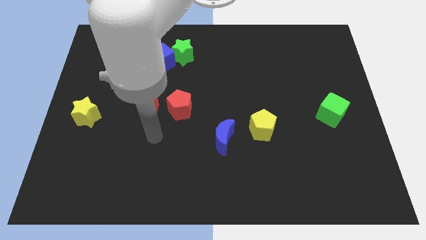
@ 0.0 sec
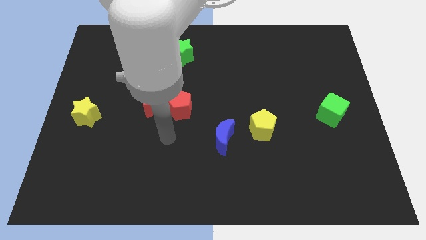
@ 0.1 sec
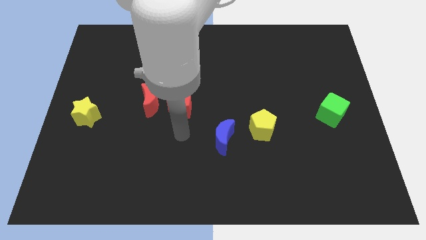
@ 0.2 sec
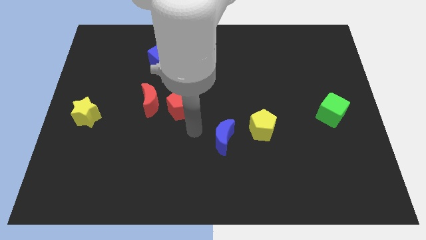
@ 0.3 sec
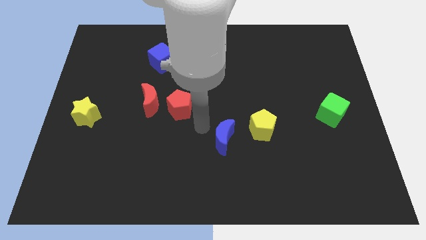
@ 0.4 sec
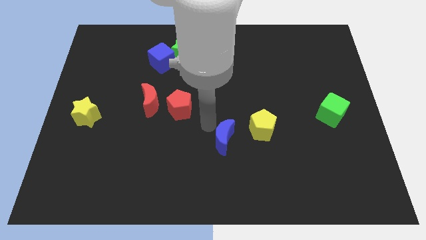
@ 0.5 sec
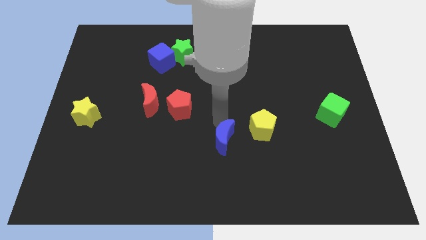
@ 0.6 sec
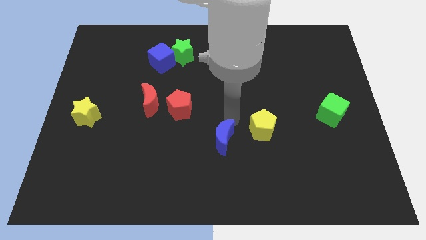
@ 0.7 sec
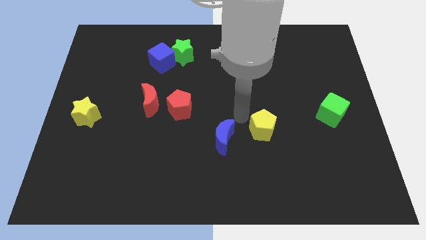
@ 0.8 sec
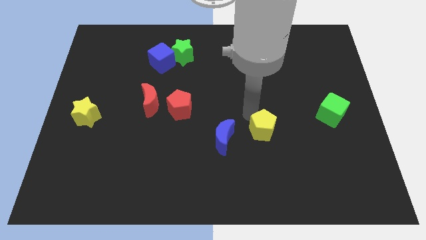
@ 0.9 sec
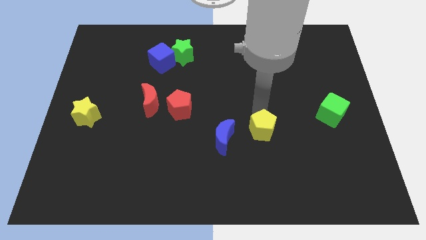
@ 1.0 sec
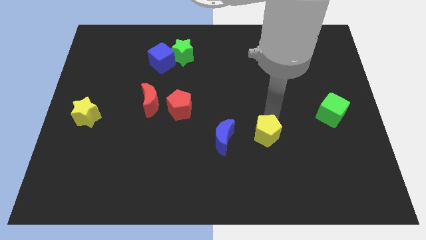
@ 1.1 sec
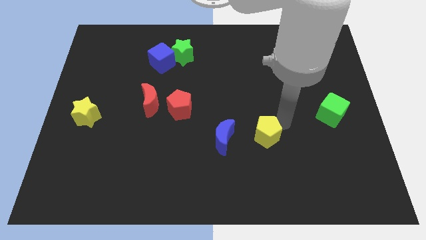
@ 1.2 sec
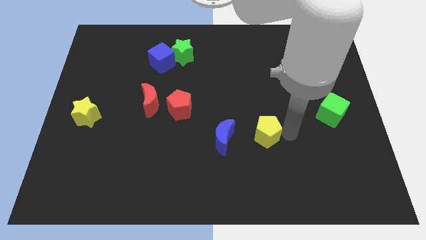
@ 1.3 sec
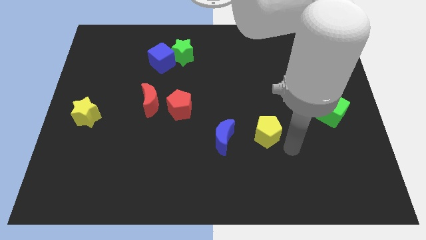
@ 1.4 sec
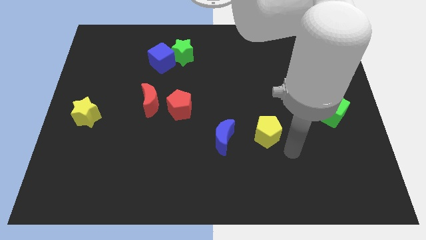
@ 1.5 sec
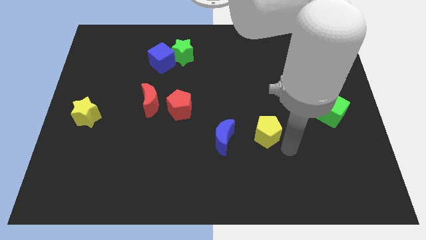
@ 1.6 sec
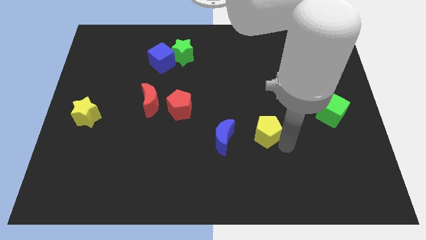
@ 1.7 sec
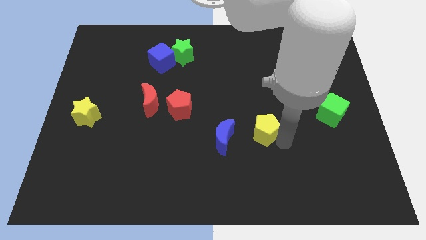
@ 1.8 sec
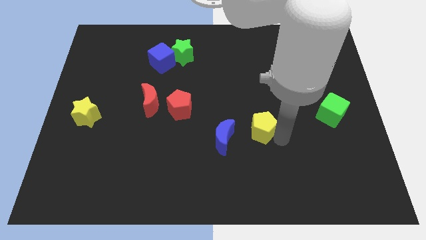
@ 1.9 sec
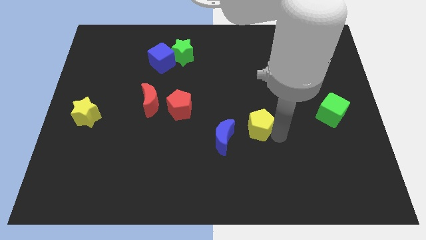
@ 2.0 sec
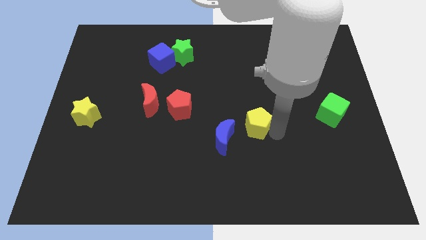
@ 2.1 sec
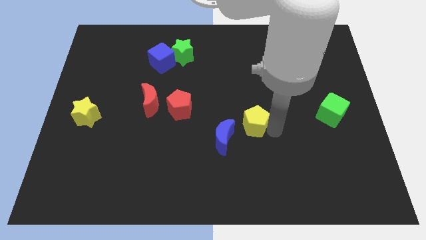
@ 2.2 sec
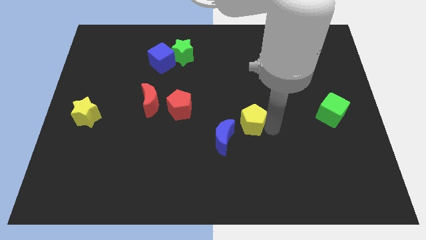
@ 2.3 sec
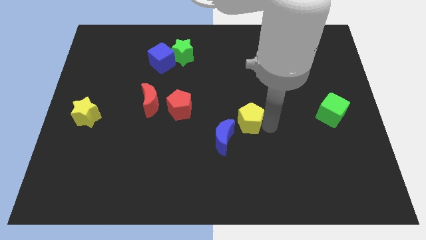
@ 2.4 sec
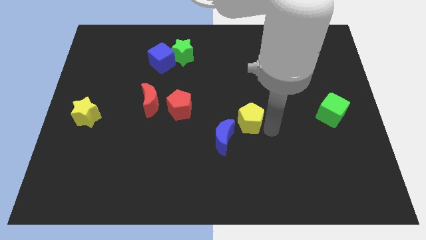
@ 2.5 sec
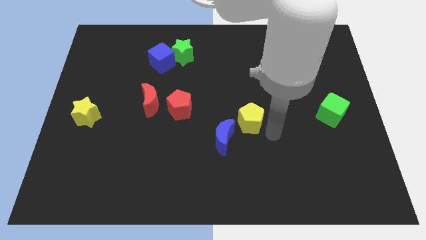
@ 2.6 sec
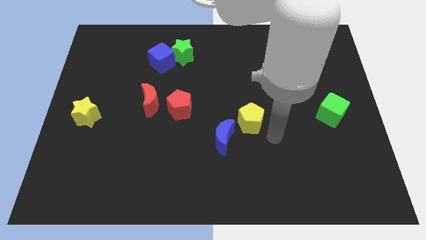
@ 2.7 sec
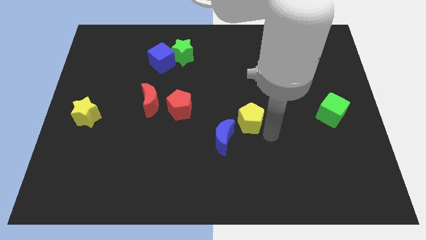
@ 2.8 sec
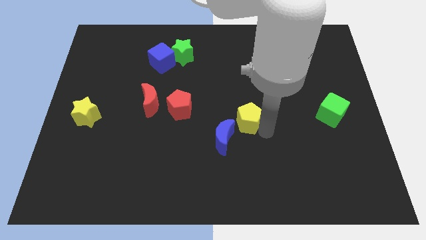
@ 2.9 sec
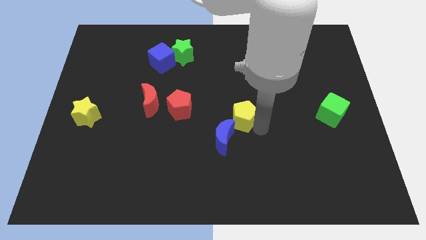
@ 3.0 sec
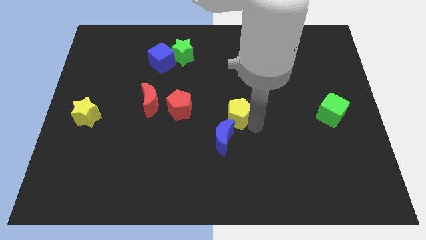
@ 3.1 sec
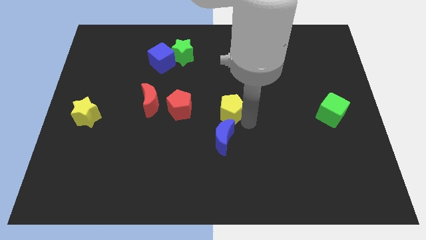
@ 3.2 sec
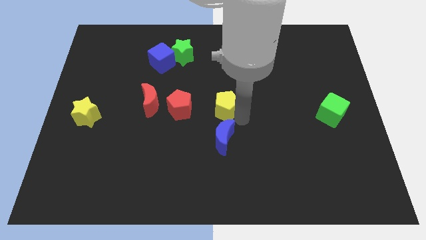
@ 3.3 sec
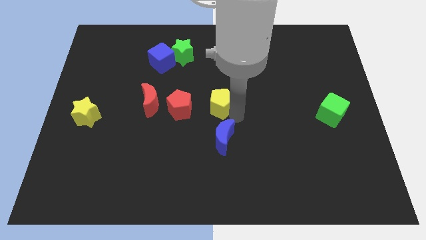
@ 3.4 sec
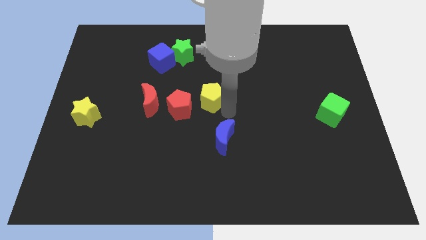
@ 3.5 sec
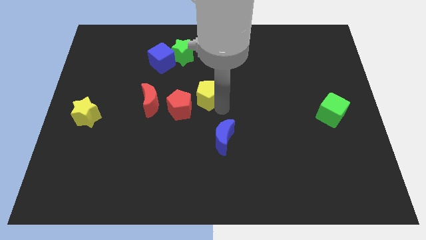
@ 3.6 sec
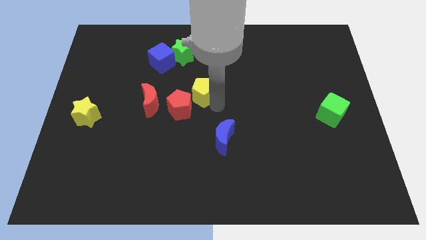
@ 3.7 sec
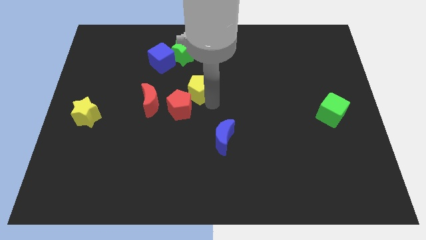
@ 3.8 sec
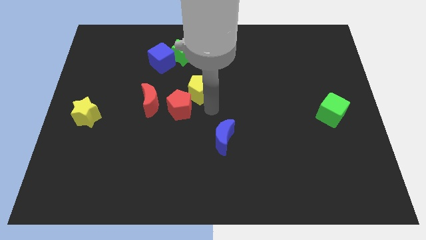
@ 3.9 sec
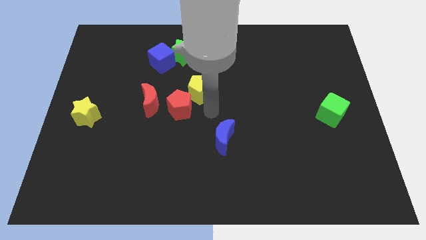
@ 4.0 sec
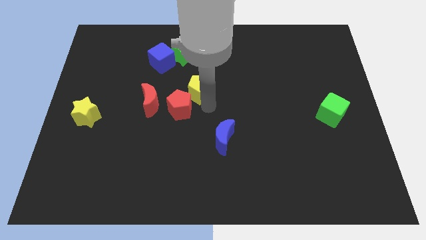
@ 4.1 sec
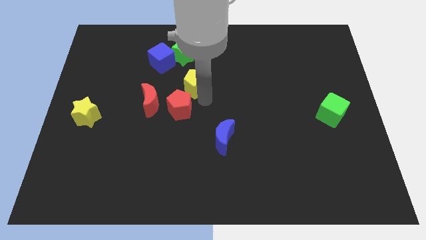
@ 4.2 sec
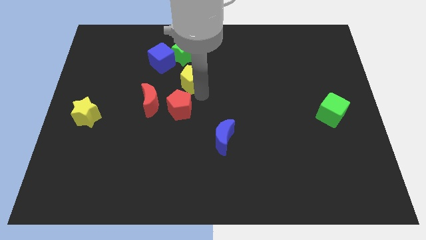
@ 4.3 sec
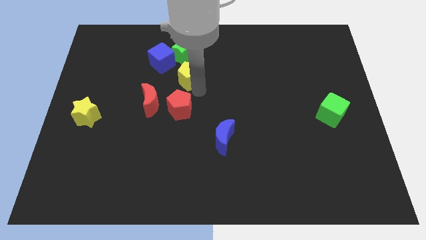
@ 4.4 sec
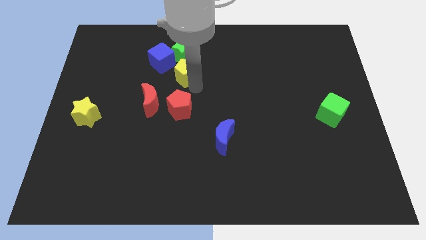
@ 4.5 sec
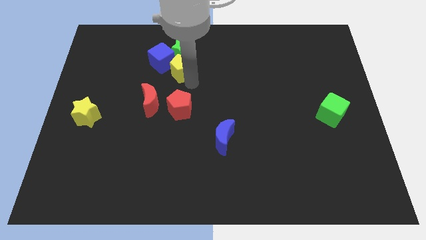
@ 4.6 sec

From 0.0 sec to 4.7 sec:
slide the yellow pentagon close to the green star

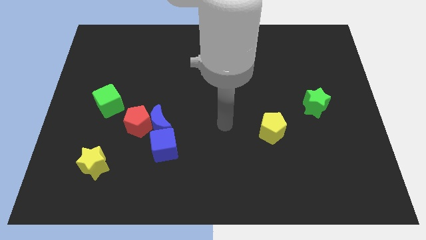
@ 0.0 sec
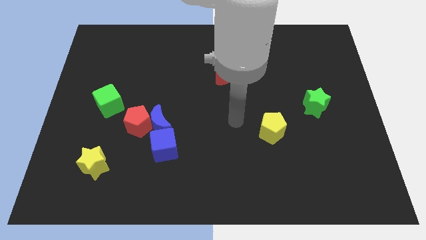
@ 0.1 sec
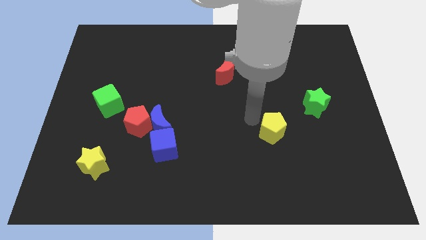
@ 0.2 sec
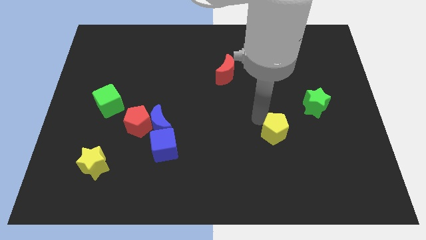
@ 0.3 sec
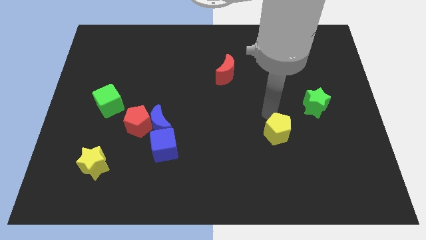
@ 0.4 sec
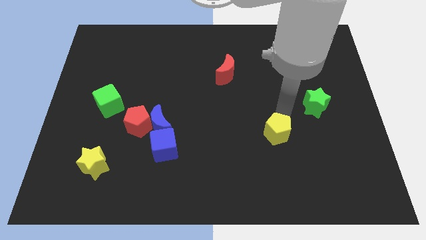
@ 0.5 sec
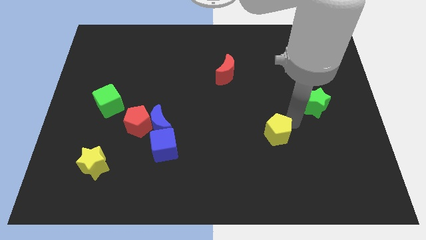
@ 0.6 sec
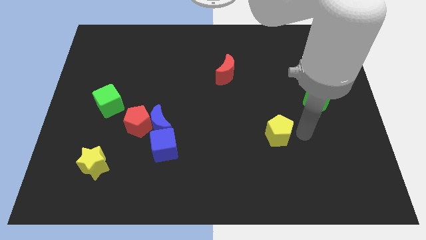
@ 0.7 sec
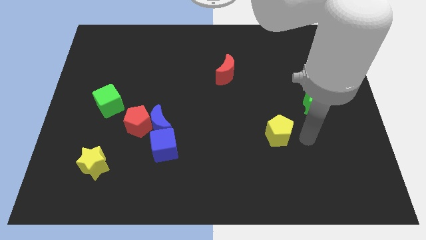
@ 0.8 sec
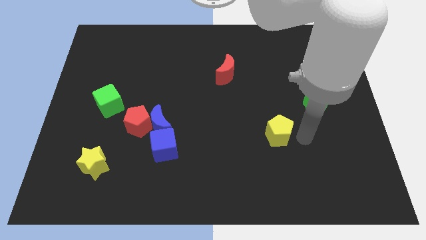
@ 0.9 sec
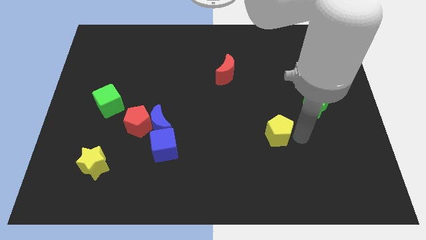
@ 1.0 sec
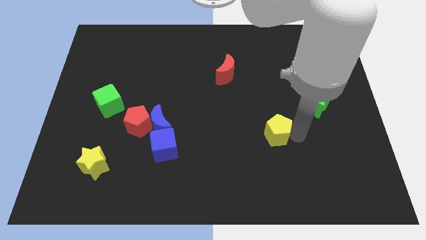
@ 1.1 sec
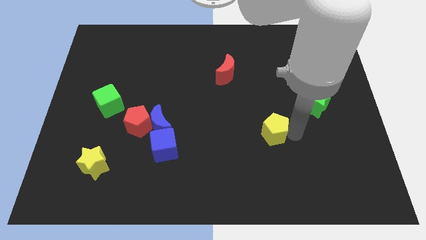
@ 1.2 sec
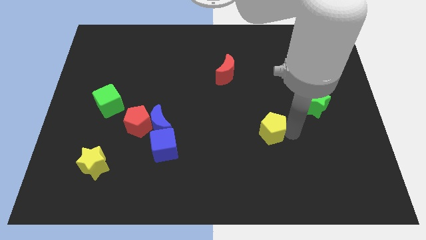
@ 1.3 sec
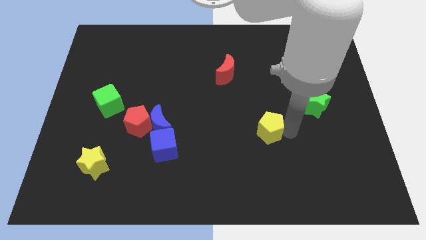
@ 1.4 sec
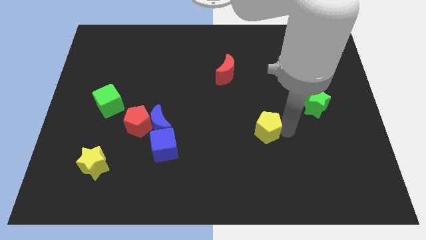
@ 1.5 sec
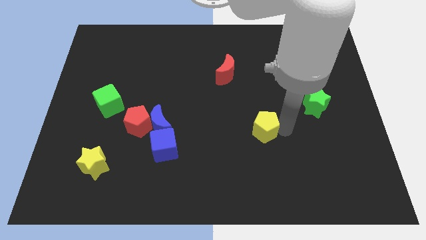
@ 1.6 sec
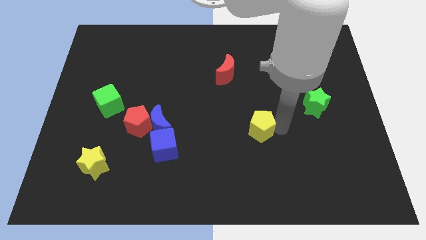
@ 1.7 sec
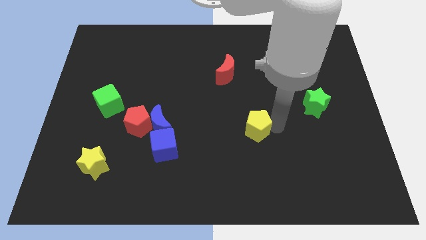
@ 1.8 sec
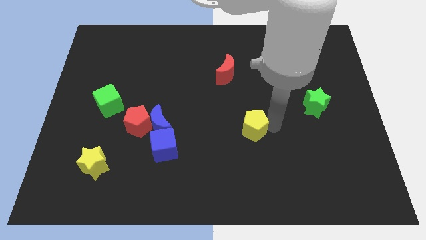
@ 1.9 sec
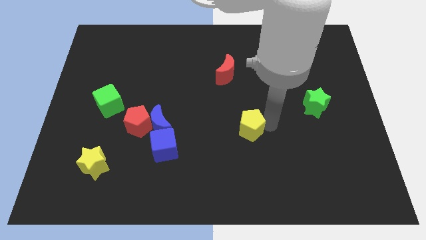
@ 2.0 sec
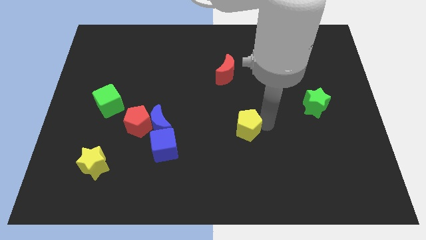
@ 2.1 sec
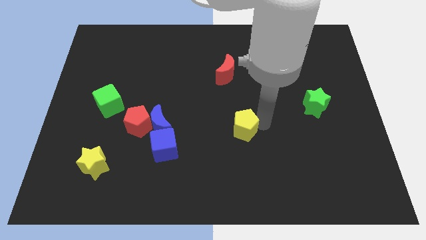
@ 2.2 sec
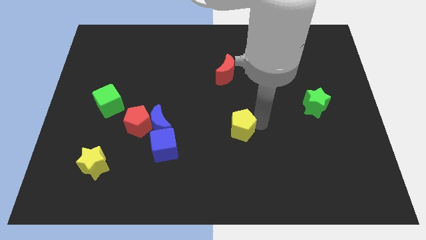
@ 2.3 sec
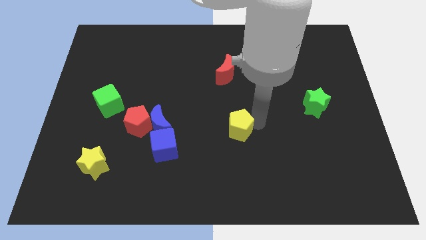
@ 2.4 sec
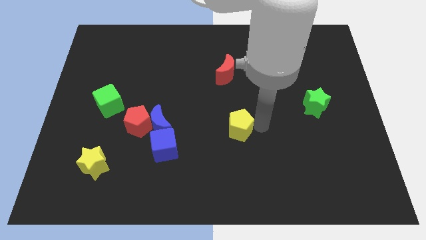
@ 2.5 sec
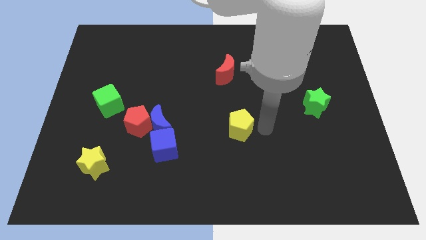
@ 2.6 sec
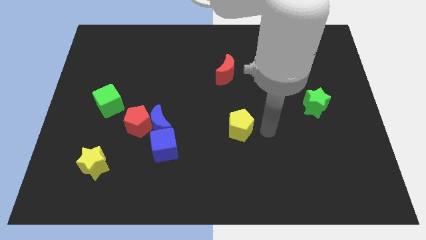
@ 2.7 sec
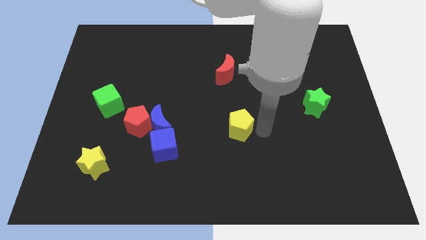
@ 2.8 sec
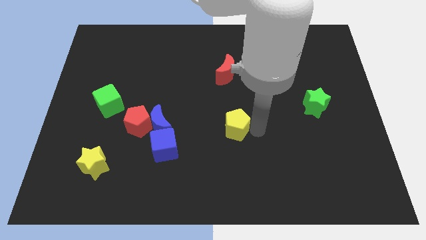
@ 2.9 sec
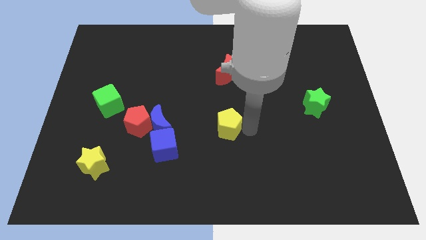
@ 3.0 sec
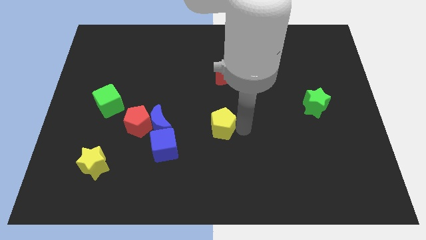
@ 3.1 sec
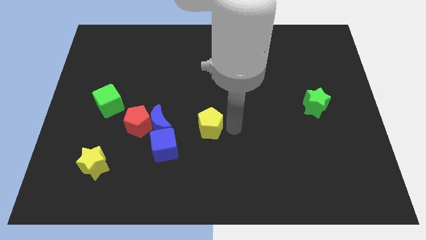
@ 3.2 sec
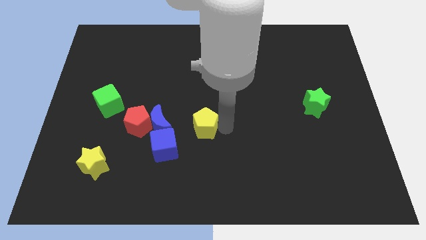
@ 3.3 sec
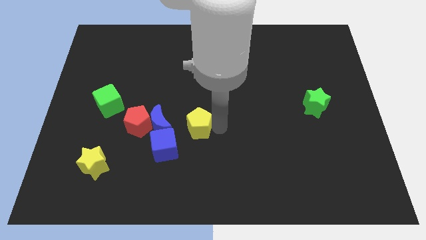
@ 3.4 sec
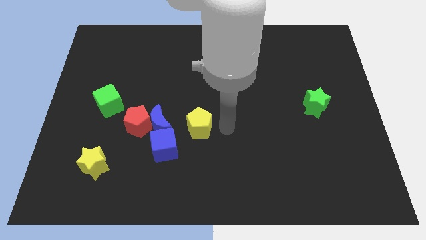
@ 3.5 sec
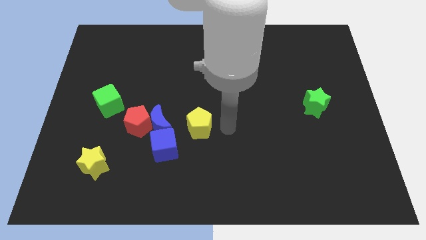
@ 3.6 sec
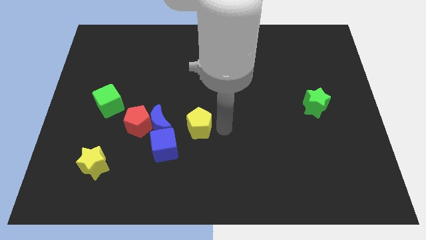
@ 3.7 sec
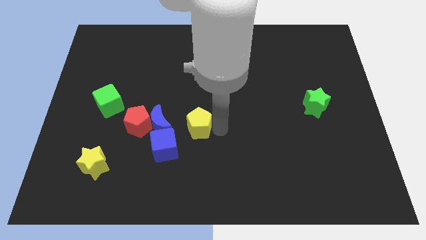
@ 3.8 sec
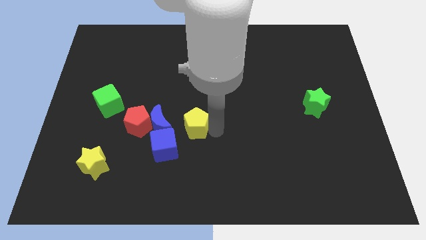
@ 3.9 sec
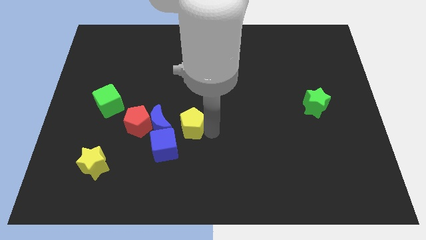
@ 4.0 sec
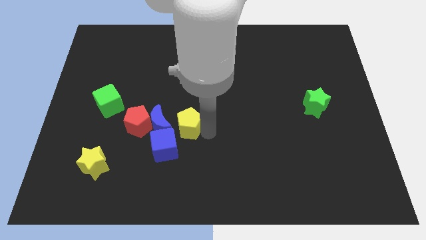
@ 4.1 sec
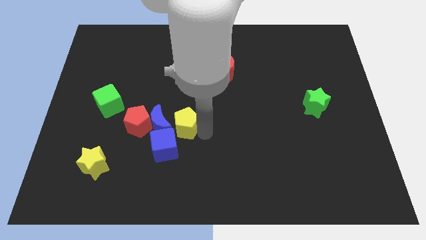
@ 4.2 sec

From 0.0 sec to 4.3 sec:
slide the yellow pentagon close to the blue moon
